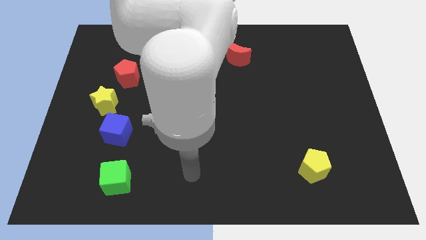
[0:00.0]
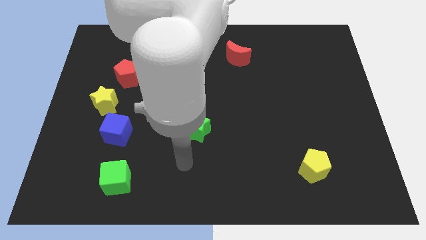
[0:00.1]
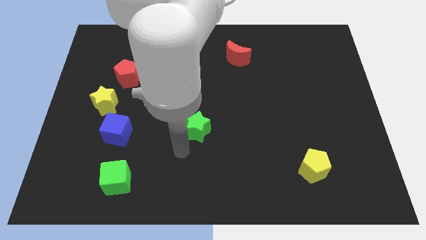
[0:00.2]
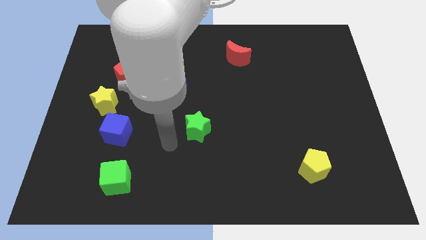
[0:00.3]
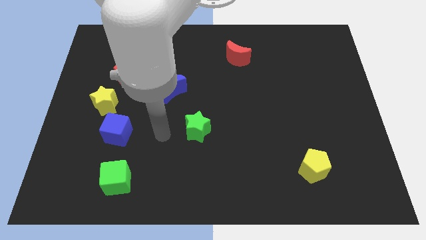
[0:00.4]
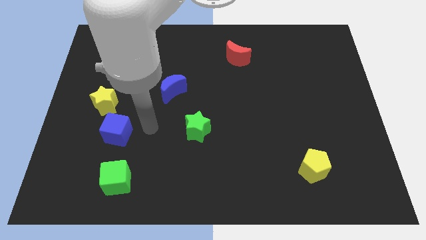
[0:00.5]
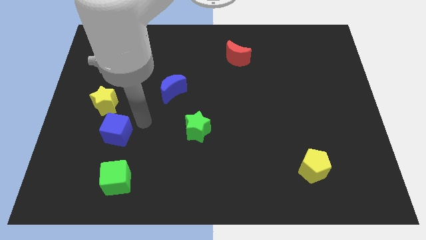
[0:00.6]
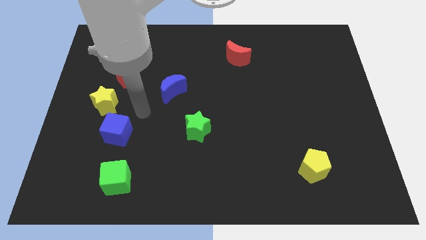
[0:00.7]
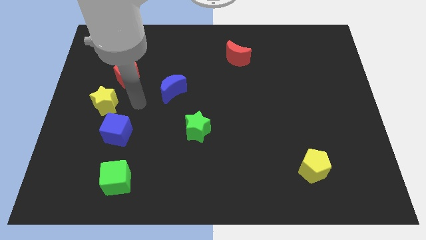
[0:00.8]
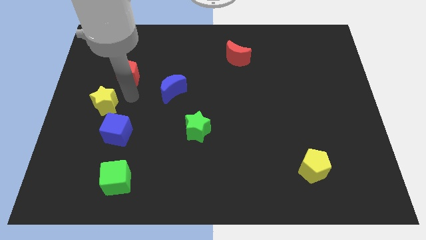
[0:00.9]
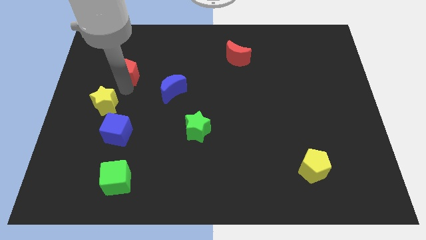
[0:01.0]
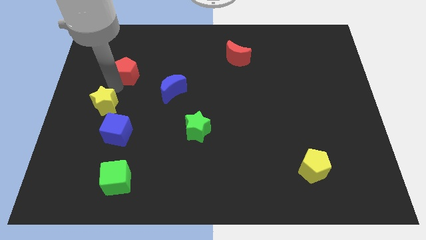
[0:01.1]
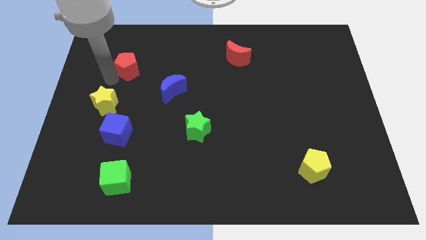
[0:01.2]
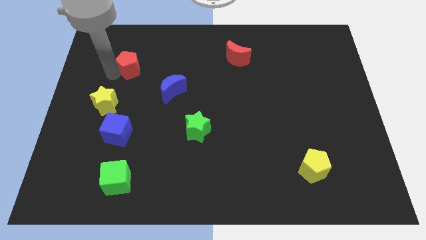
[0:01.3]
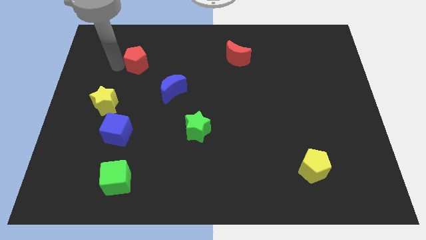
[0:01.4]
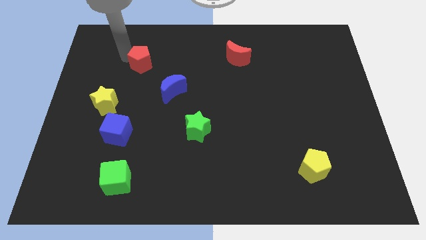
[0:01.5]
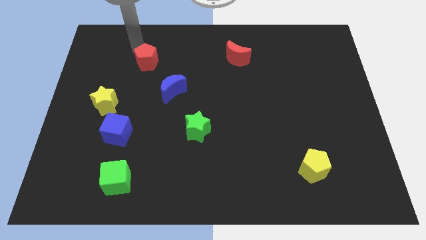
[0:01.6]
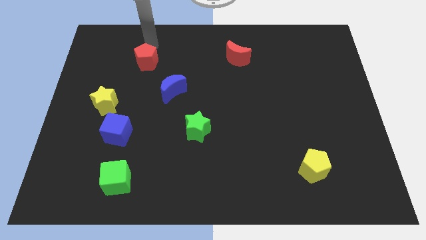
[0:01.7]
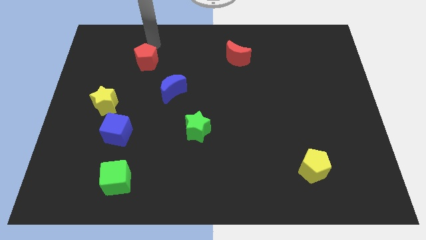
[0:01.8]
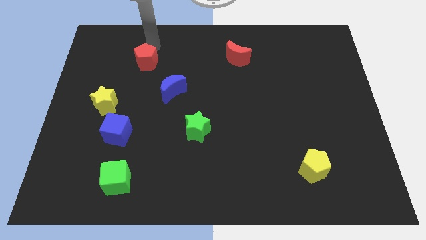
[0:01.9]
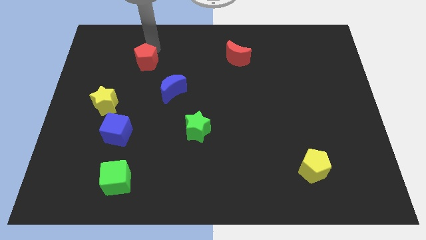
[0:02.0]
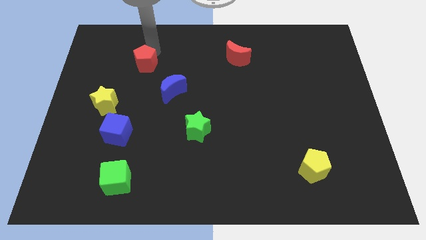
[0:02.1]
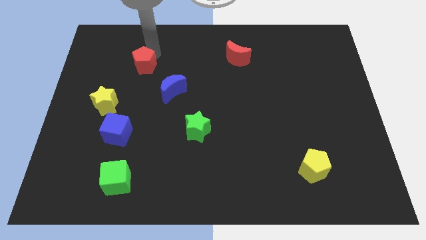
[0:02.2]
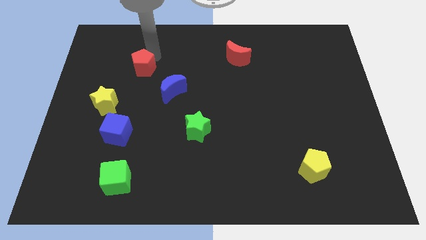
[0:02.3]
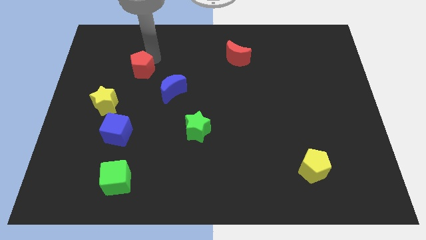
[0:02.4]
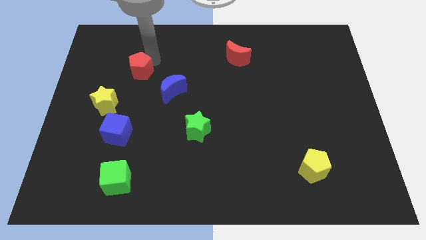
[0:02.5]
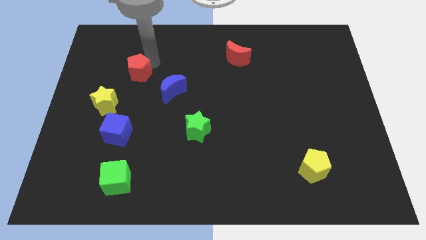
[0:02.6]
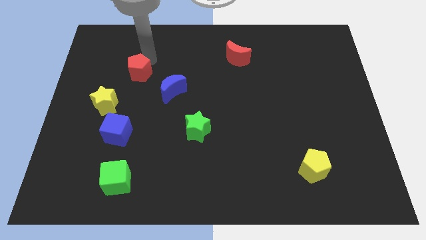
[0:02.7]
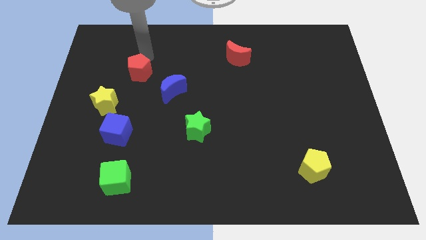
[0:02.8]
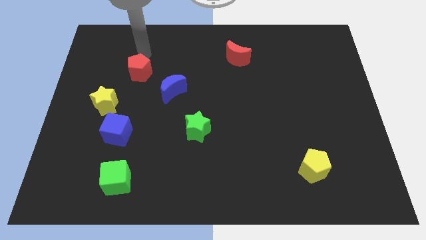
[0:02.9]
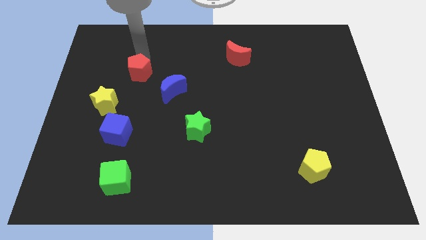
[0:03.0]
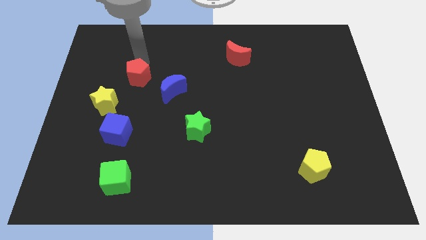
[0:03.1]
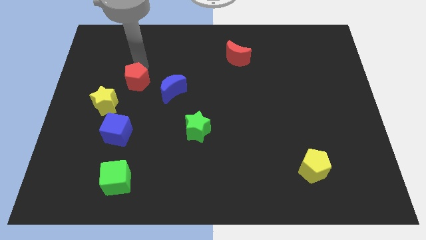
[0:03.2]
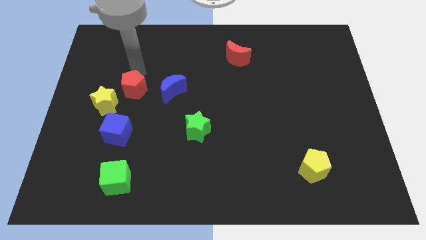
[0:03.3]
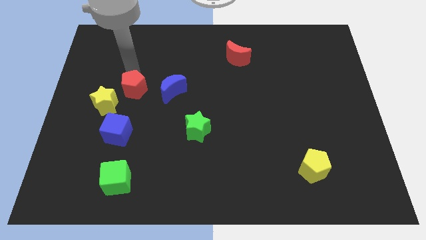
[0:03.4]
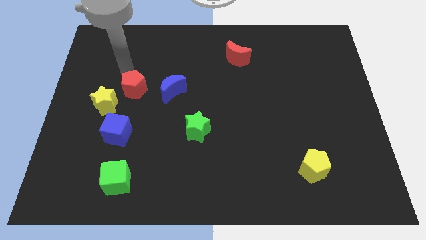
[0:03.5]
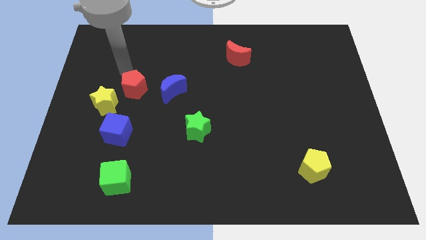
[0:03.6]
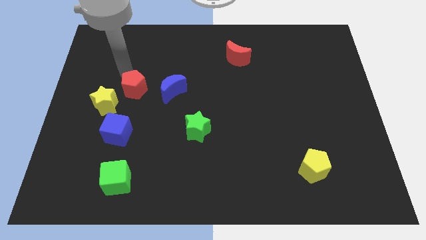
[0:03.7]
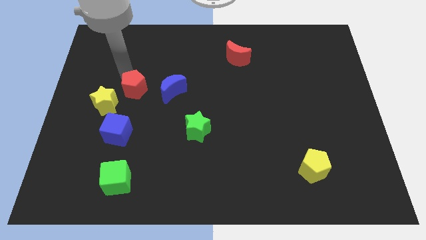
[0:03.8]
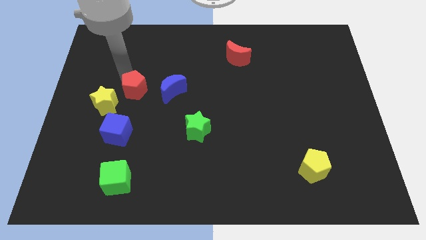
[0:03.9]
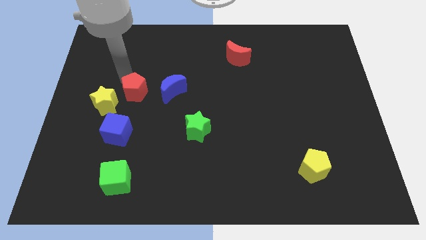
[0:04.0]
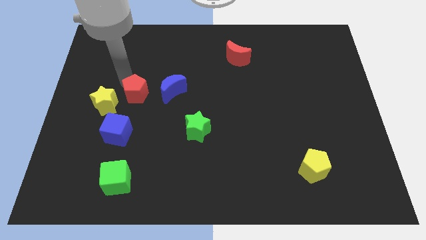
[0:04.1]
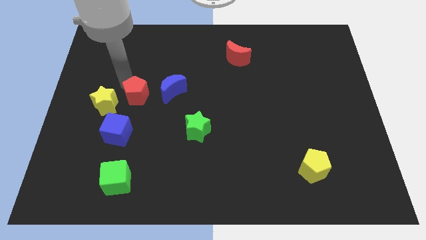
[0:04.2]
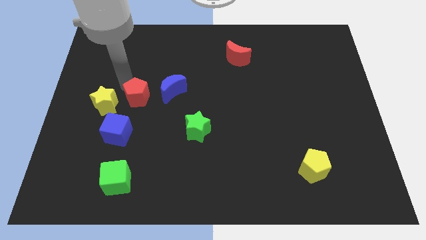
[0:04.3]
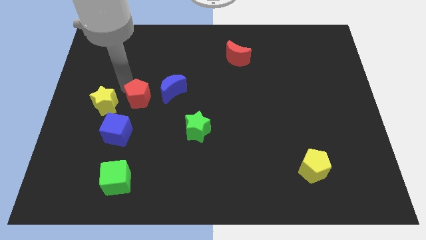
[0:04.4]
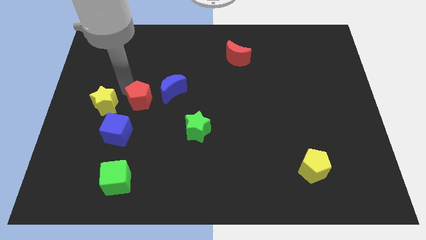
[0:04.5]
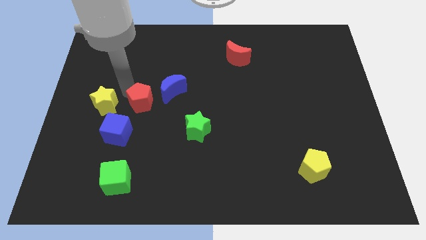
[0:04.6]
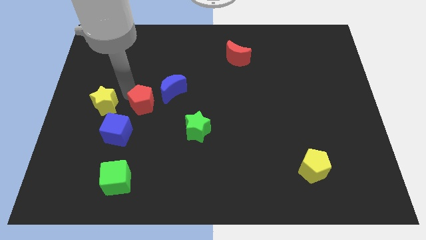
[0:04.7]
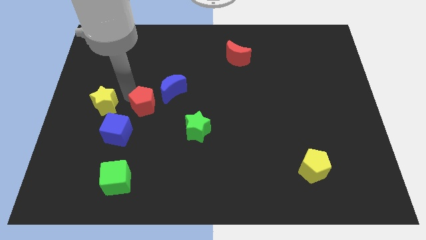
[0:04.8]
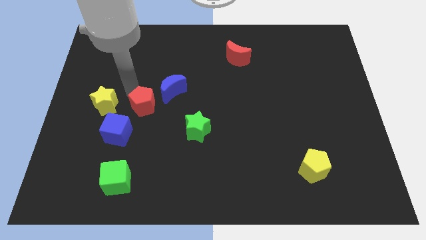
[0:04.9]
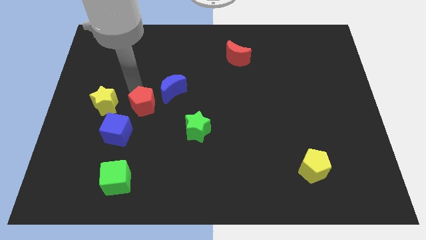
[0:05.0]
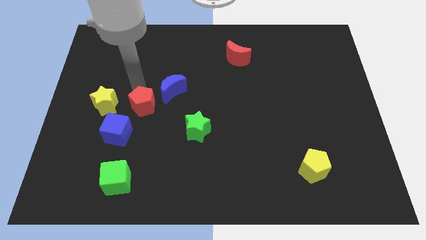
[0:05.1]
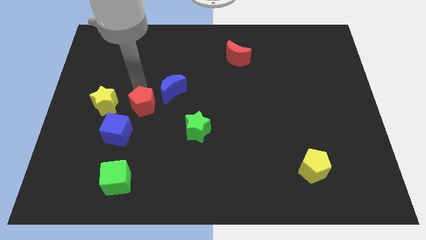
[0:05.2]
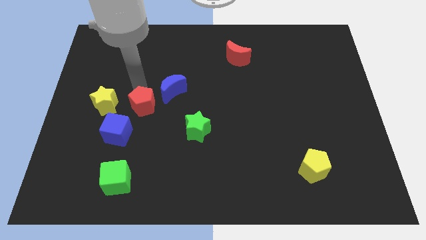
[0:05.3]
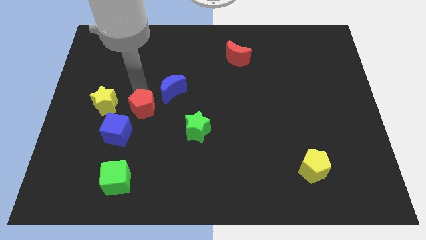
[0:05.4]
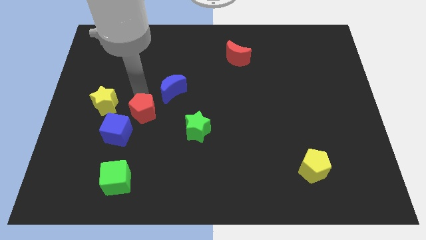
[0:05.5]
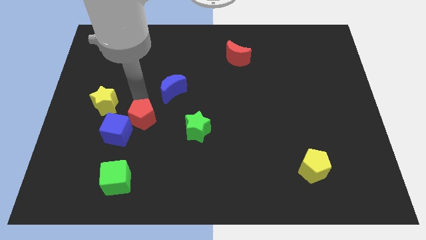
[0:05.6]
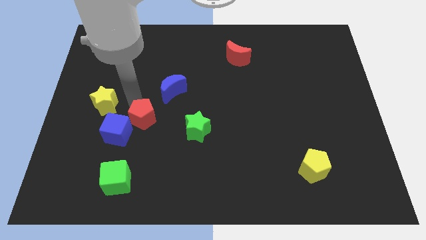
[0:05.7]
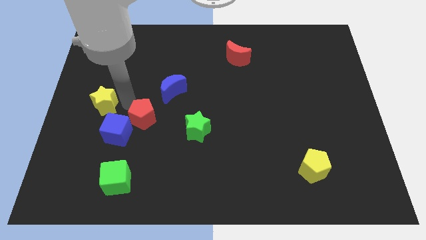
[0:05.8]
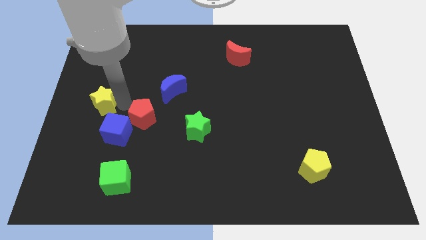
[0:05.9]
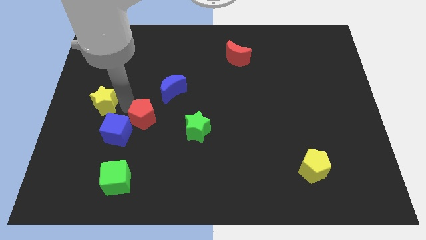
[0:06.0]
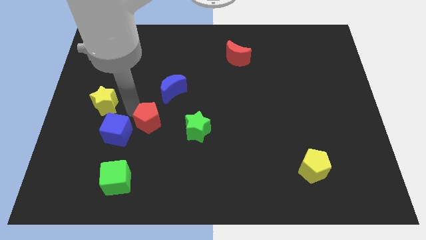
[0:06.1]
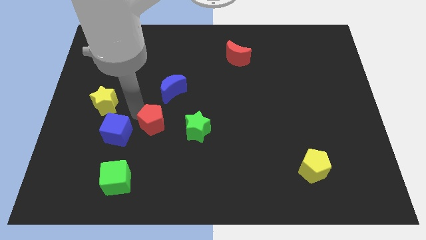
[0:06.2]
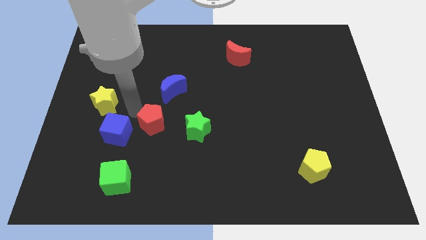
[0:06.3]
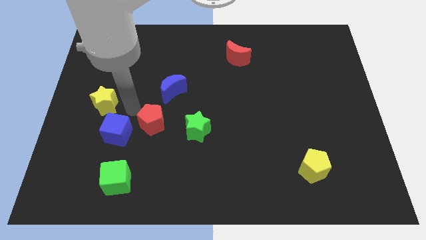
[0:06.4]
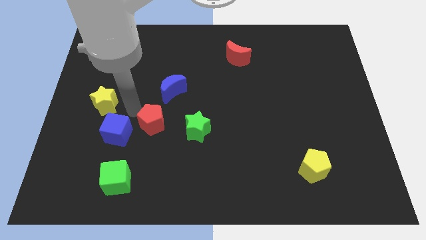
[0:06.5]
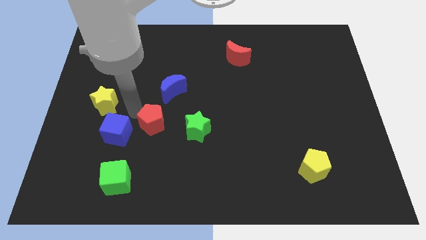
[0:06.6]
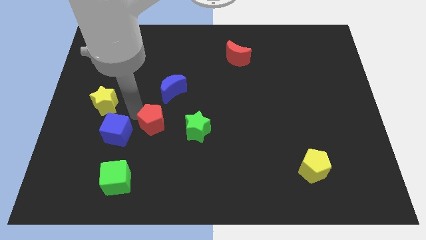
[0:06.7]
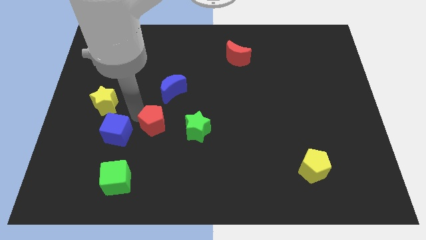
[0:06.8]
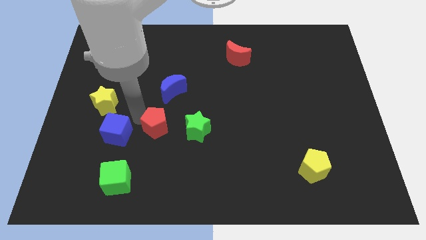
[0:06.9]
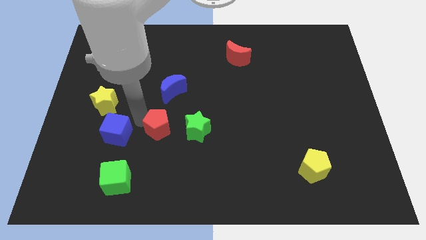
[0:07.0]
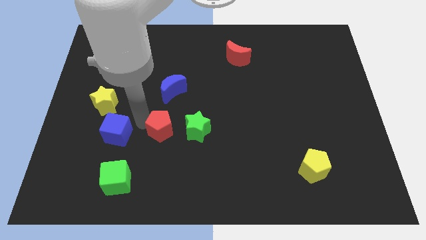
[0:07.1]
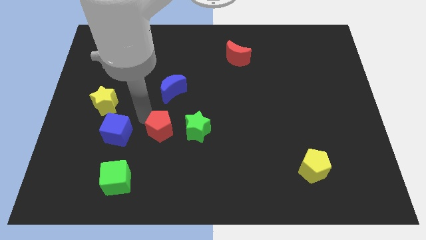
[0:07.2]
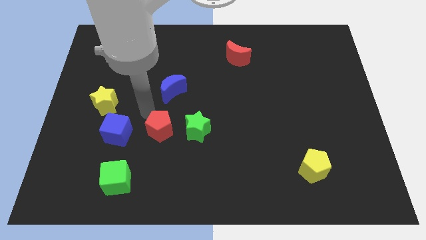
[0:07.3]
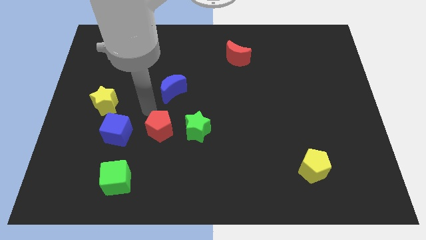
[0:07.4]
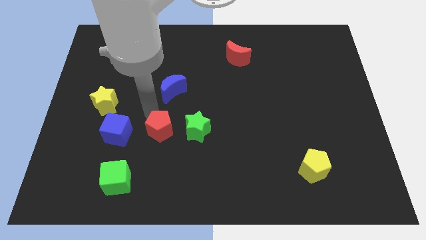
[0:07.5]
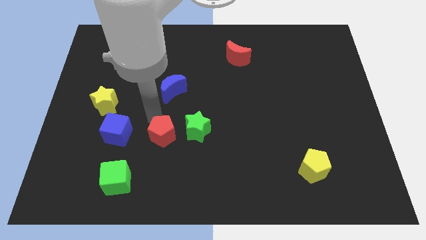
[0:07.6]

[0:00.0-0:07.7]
move the red pentagon diagonally down and to the left of the green star
